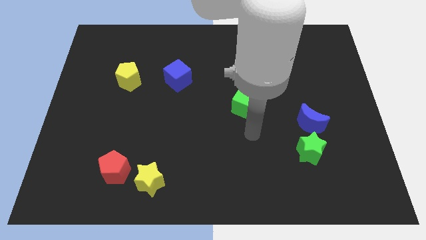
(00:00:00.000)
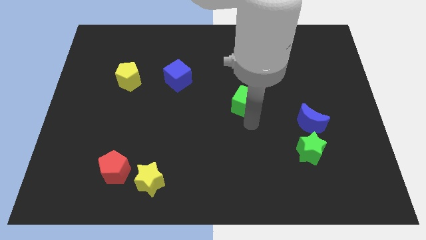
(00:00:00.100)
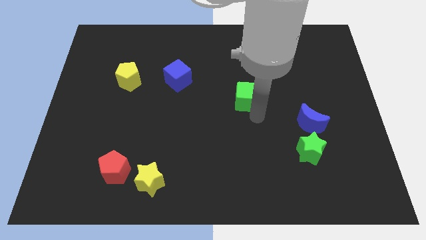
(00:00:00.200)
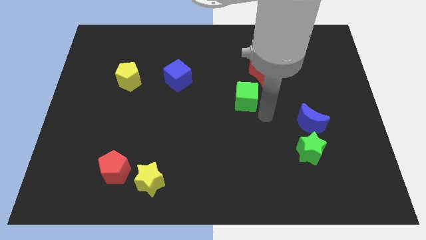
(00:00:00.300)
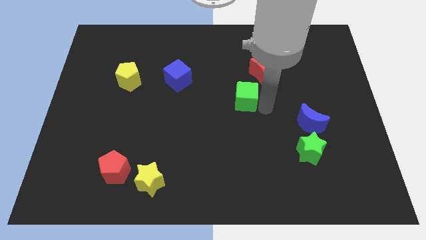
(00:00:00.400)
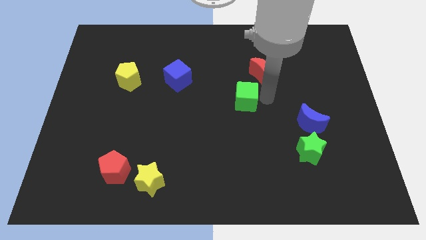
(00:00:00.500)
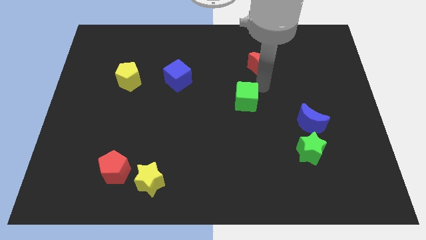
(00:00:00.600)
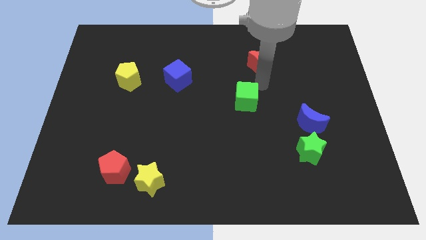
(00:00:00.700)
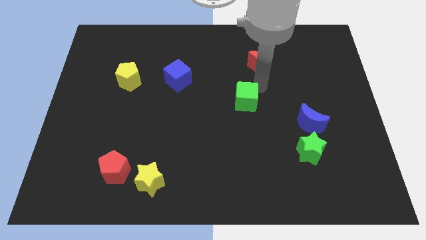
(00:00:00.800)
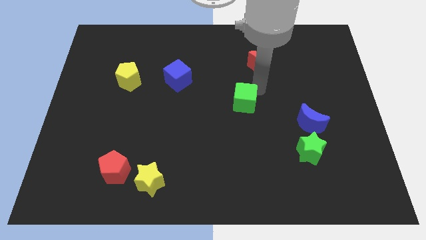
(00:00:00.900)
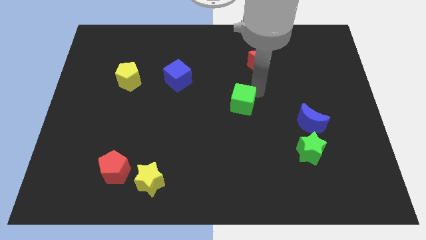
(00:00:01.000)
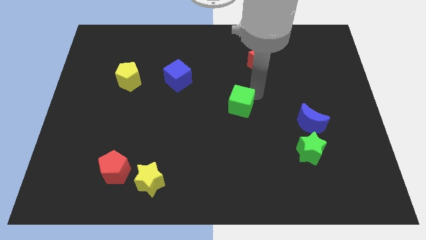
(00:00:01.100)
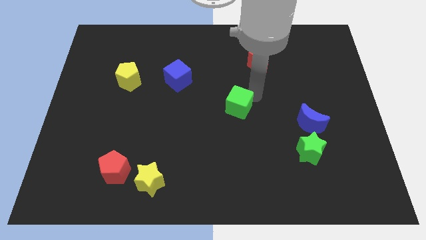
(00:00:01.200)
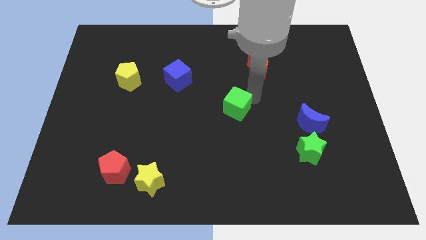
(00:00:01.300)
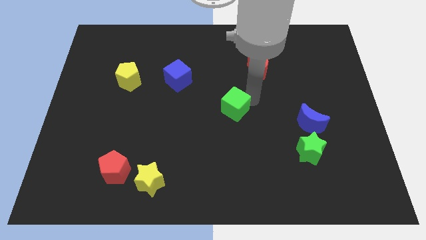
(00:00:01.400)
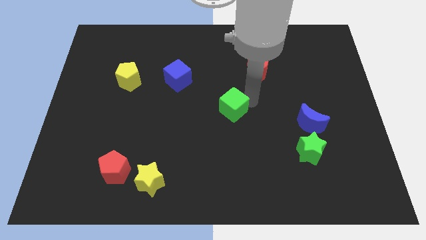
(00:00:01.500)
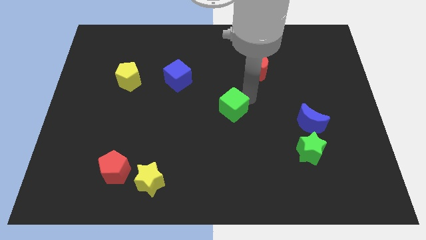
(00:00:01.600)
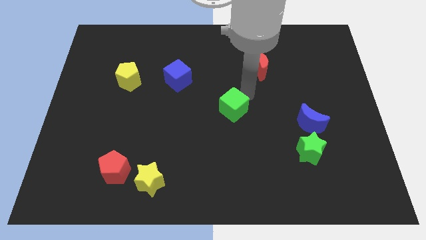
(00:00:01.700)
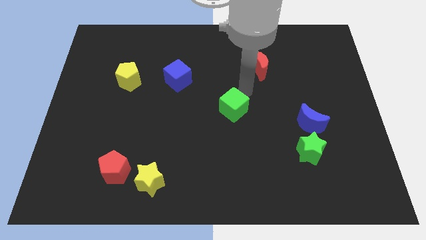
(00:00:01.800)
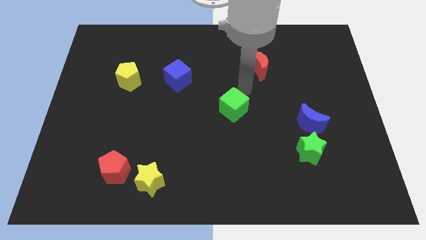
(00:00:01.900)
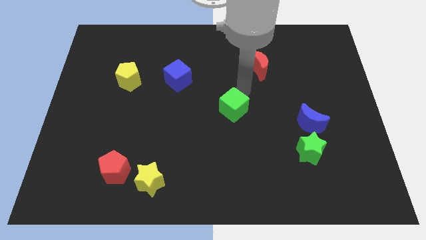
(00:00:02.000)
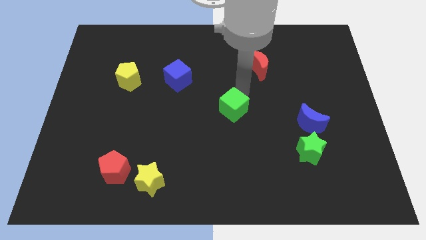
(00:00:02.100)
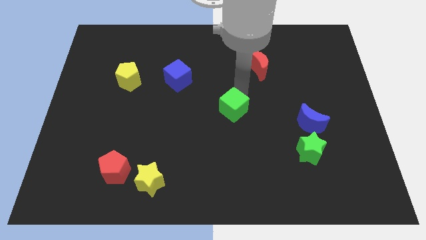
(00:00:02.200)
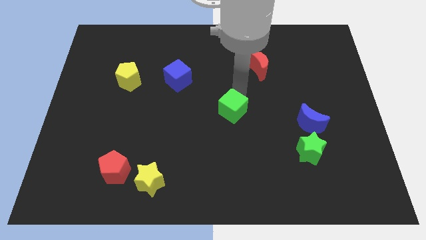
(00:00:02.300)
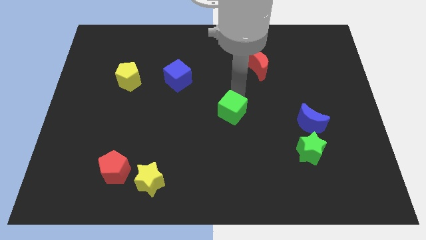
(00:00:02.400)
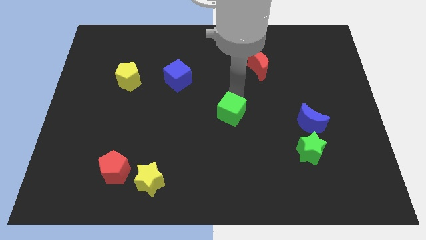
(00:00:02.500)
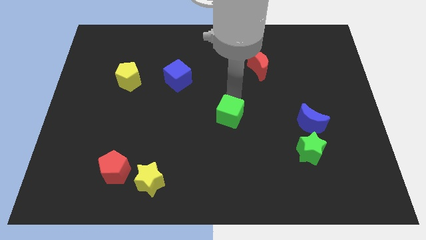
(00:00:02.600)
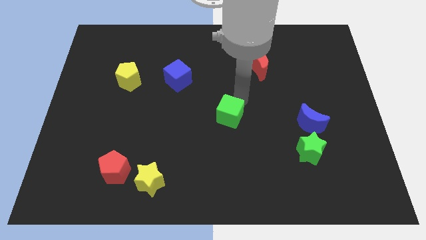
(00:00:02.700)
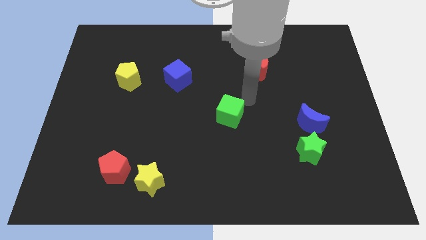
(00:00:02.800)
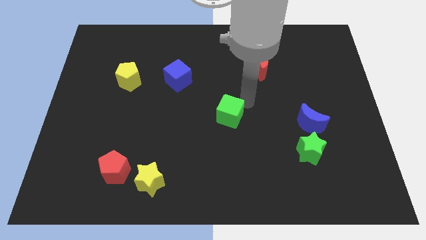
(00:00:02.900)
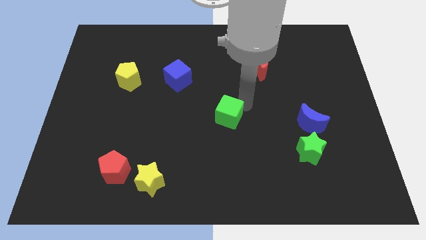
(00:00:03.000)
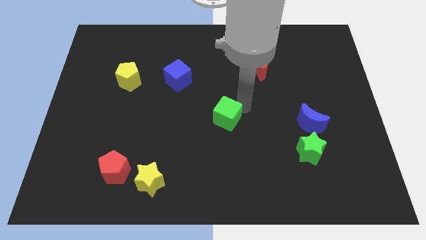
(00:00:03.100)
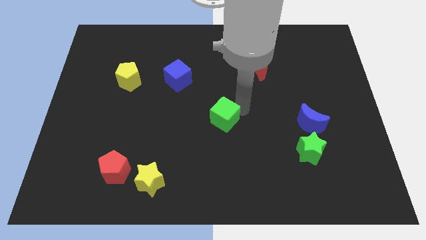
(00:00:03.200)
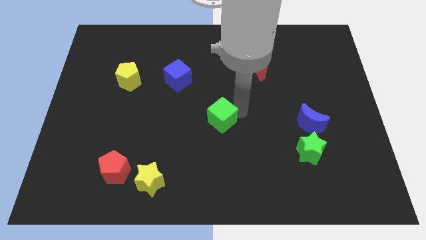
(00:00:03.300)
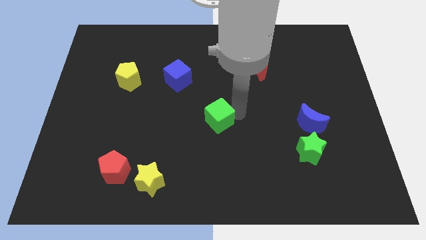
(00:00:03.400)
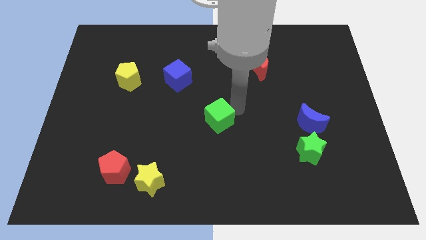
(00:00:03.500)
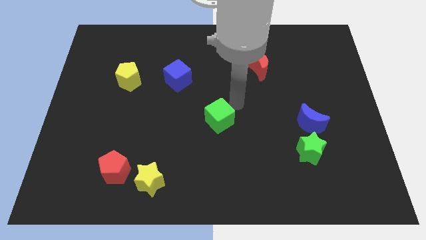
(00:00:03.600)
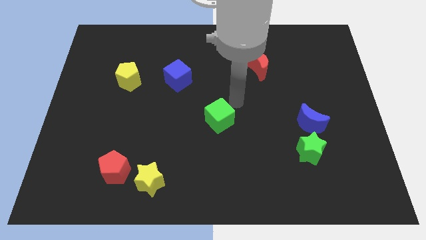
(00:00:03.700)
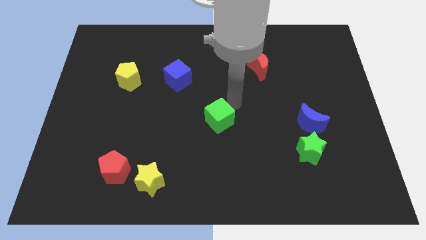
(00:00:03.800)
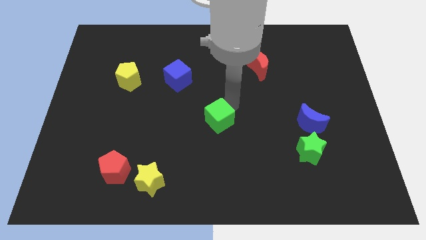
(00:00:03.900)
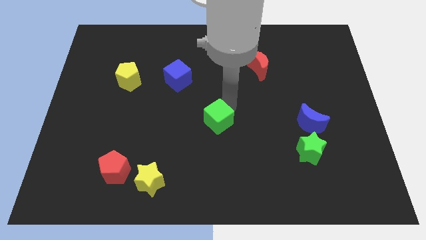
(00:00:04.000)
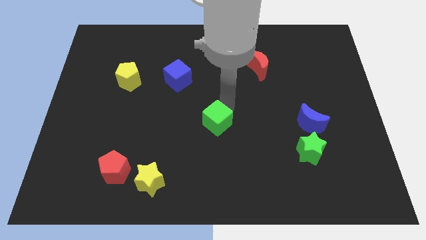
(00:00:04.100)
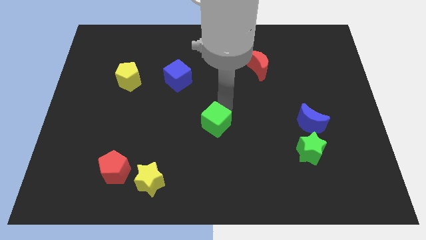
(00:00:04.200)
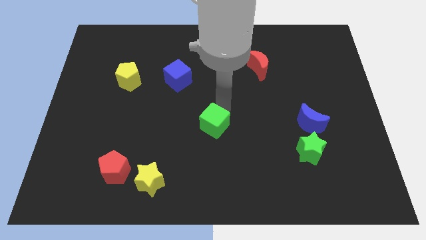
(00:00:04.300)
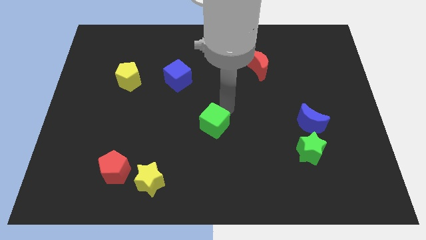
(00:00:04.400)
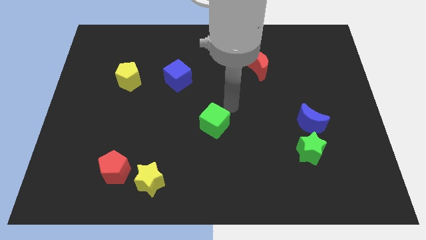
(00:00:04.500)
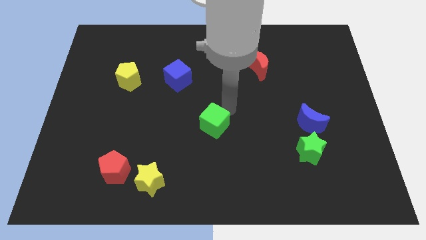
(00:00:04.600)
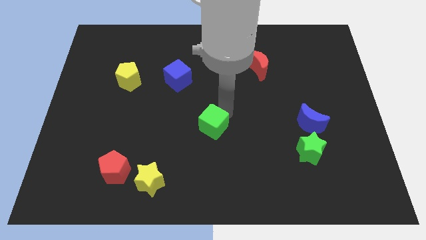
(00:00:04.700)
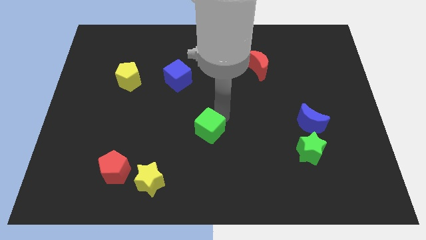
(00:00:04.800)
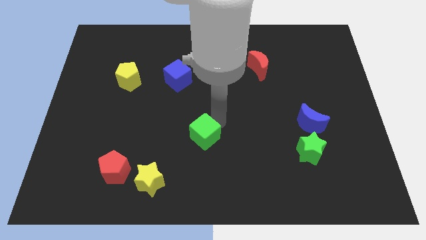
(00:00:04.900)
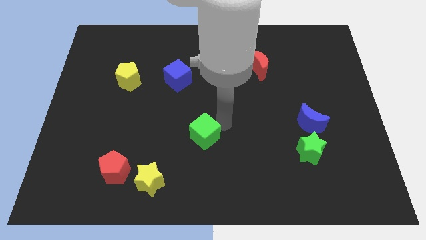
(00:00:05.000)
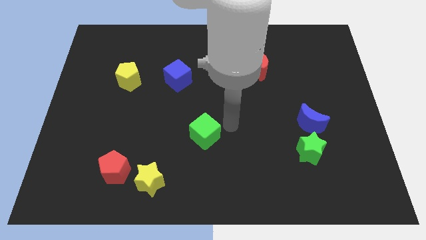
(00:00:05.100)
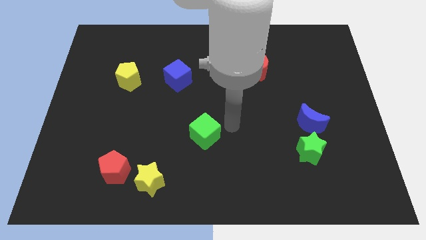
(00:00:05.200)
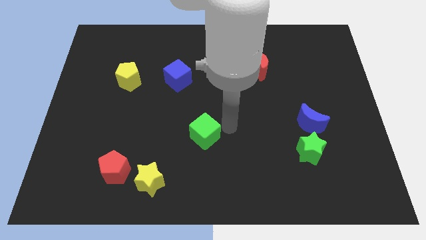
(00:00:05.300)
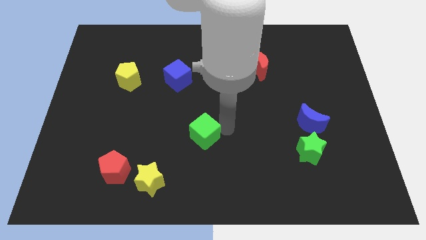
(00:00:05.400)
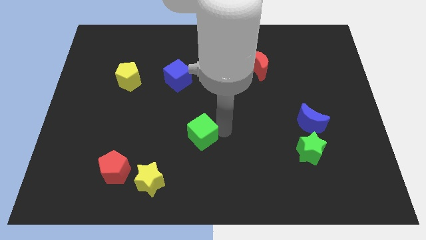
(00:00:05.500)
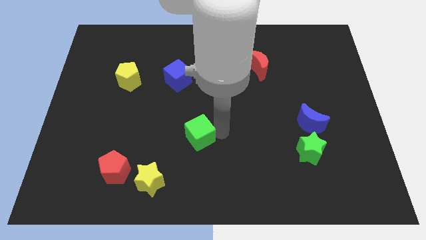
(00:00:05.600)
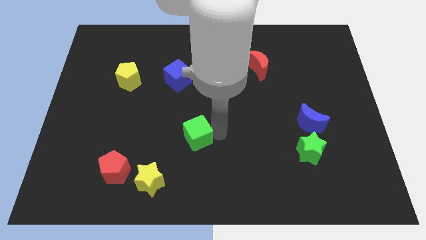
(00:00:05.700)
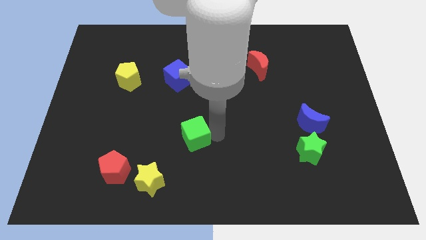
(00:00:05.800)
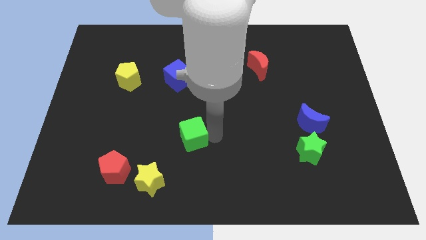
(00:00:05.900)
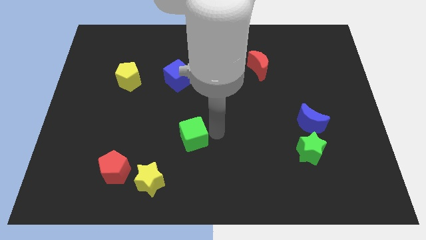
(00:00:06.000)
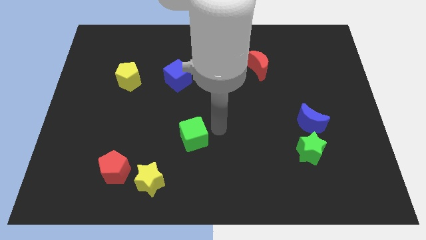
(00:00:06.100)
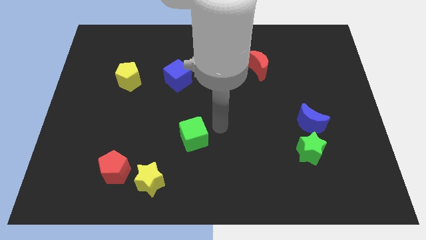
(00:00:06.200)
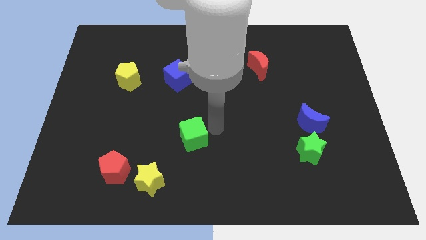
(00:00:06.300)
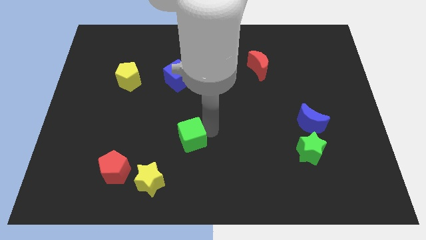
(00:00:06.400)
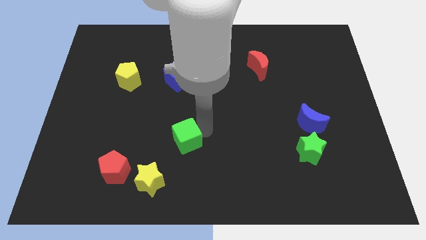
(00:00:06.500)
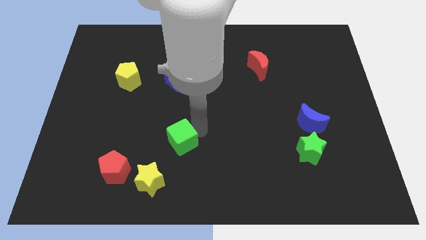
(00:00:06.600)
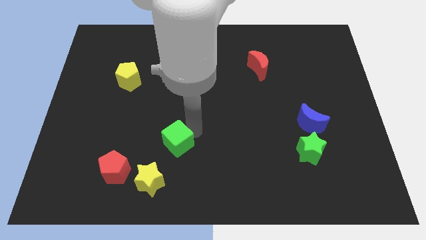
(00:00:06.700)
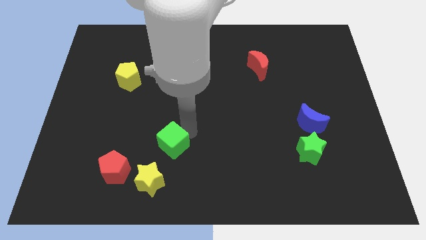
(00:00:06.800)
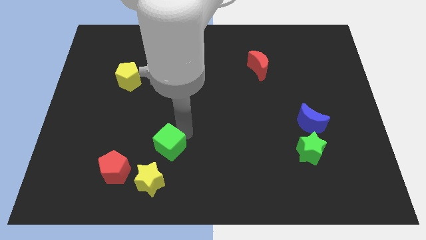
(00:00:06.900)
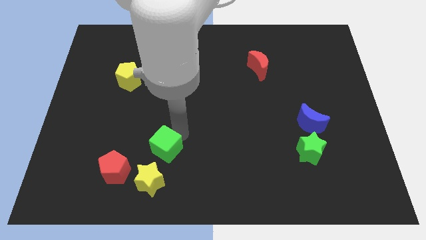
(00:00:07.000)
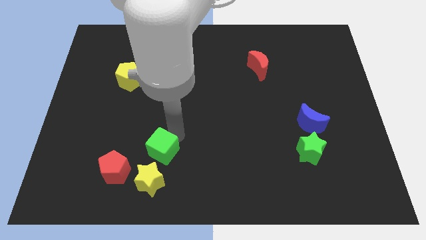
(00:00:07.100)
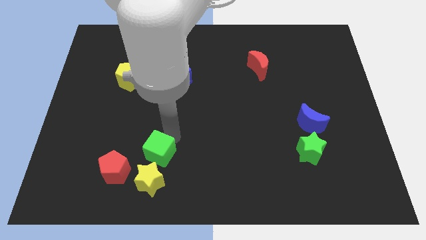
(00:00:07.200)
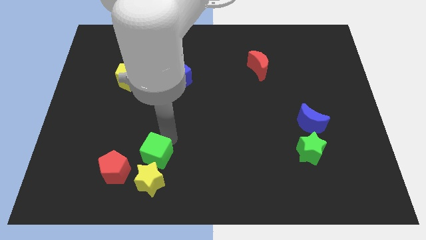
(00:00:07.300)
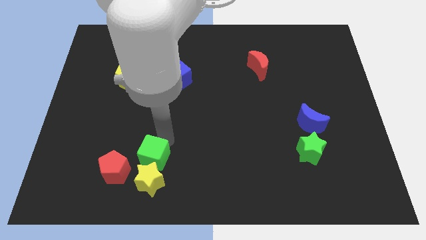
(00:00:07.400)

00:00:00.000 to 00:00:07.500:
slide the green cube close to the yellow star
